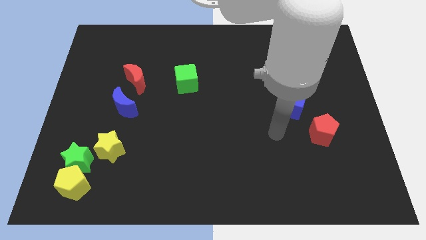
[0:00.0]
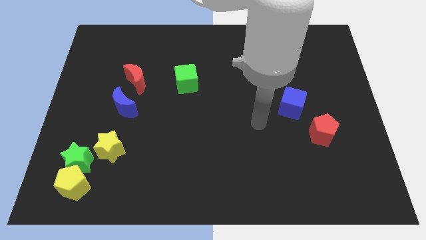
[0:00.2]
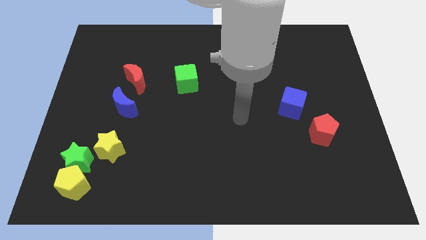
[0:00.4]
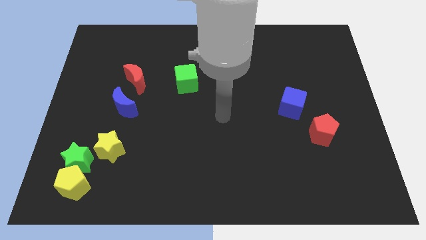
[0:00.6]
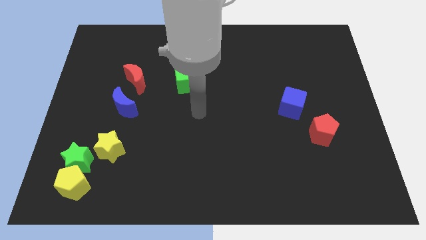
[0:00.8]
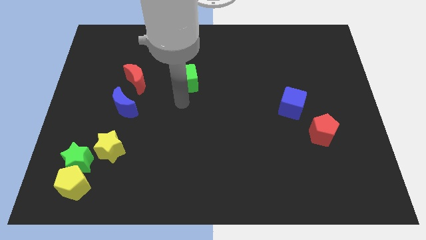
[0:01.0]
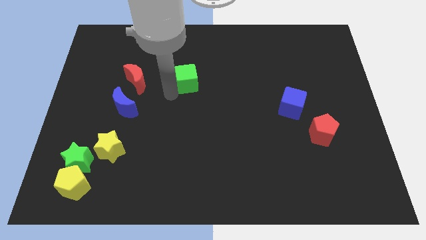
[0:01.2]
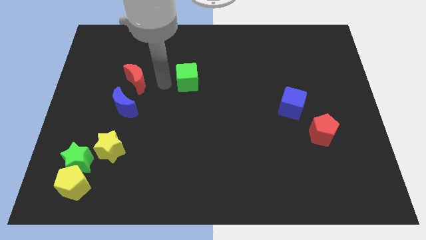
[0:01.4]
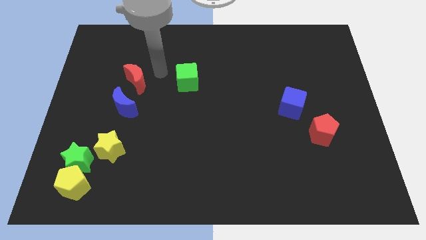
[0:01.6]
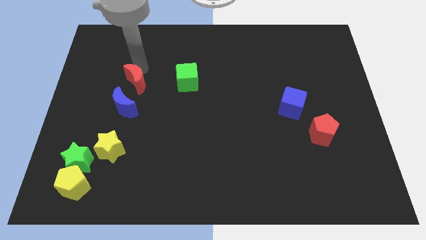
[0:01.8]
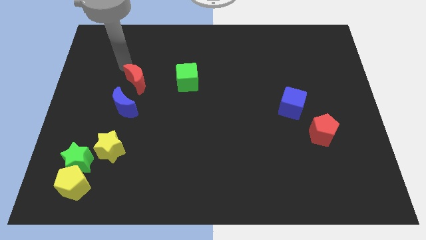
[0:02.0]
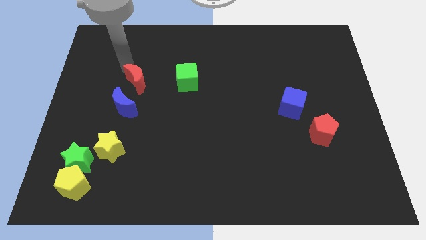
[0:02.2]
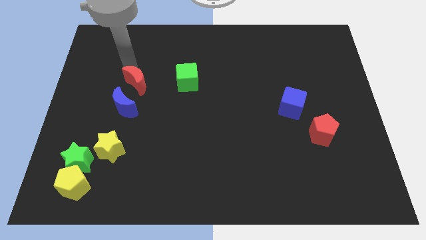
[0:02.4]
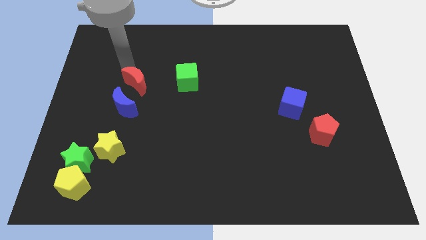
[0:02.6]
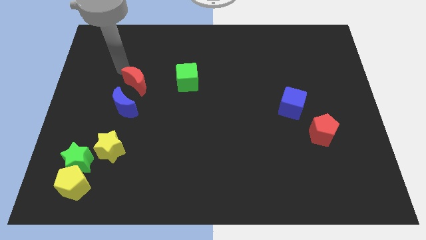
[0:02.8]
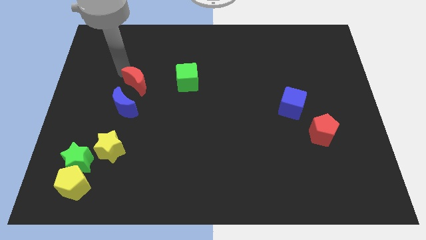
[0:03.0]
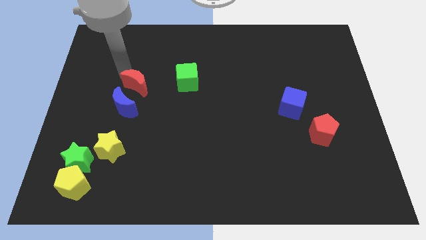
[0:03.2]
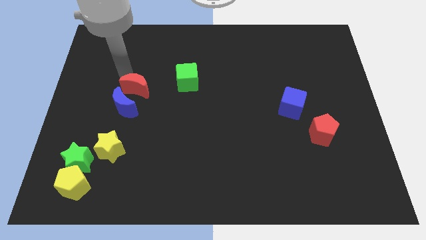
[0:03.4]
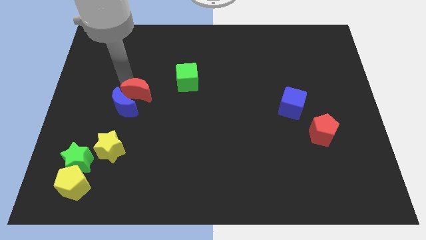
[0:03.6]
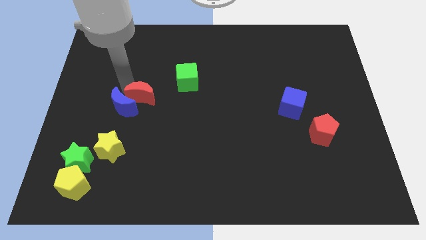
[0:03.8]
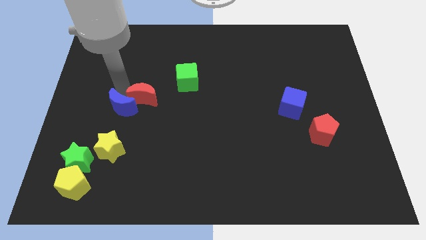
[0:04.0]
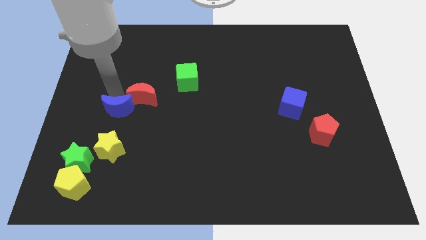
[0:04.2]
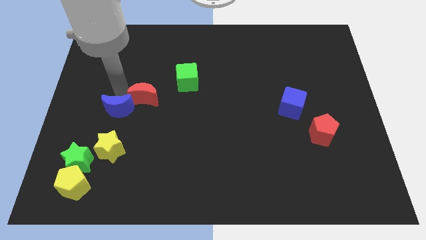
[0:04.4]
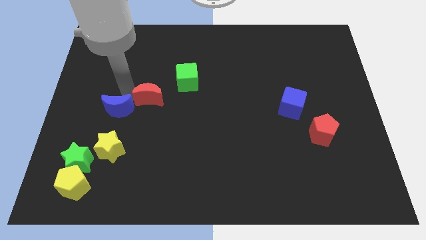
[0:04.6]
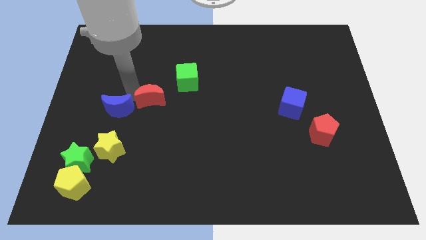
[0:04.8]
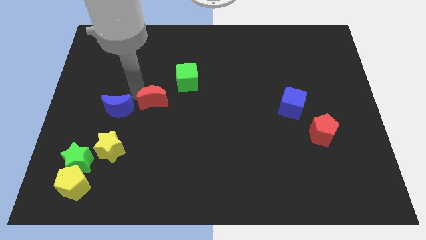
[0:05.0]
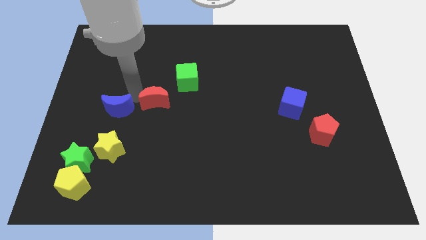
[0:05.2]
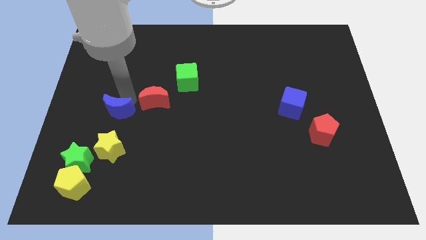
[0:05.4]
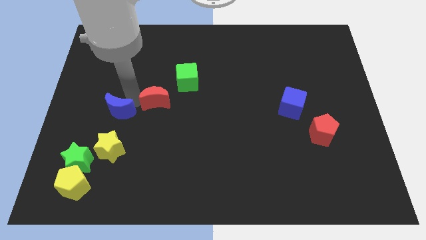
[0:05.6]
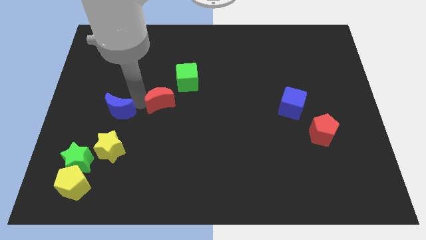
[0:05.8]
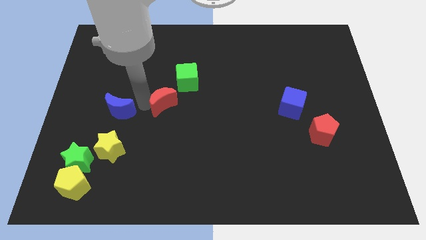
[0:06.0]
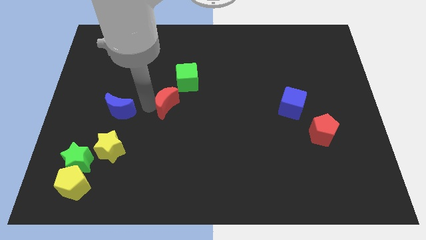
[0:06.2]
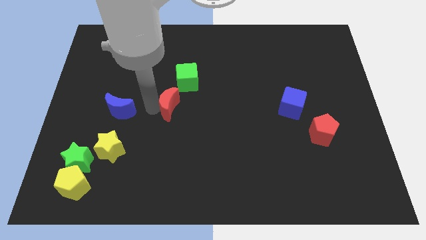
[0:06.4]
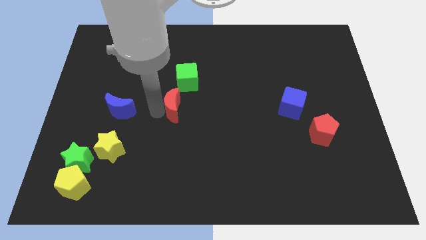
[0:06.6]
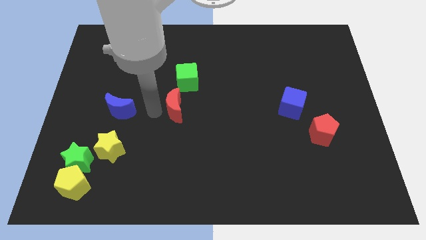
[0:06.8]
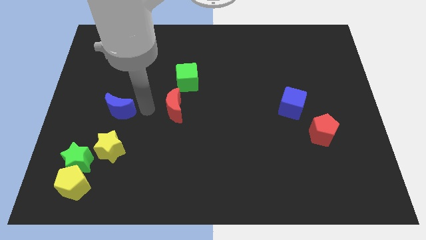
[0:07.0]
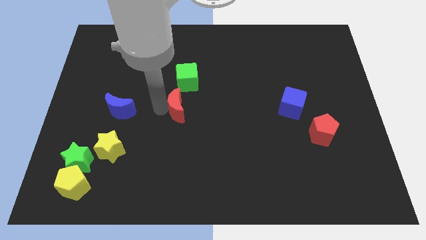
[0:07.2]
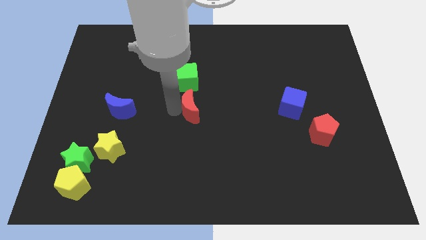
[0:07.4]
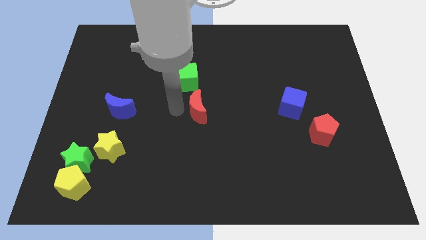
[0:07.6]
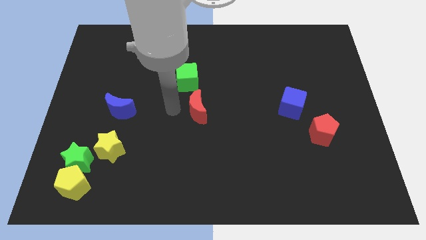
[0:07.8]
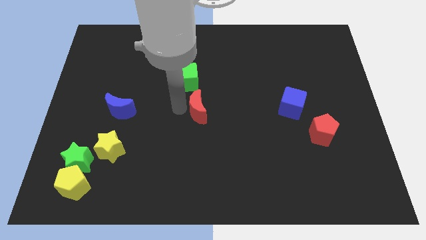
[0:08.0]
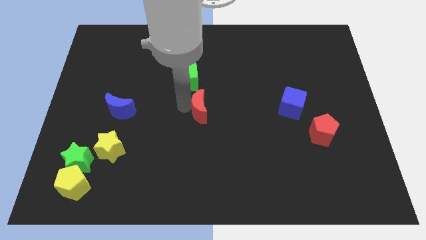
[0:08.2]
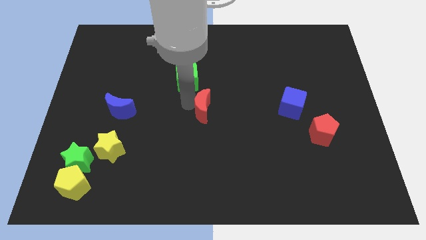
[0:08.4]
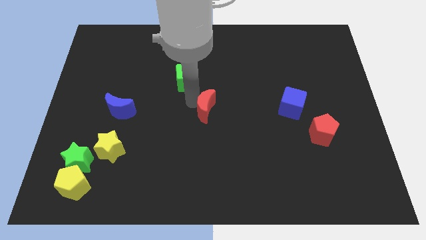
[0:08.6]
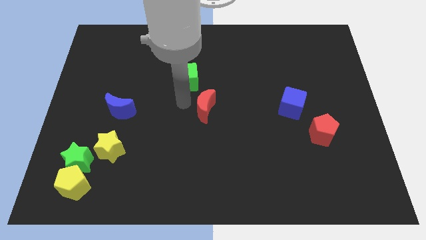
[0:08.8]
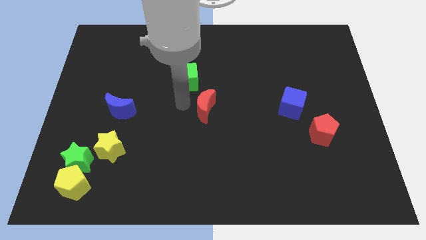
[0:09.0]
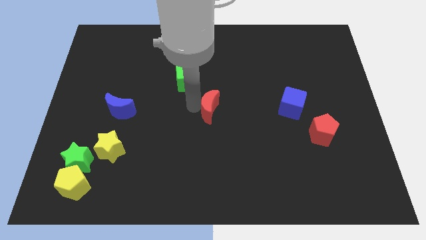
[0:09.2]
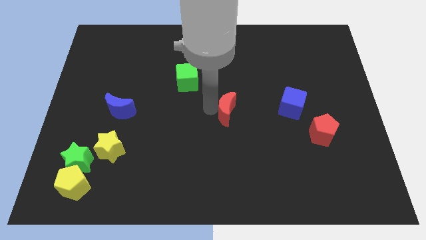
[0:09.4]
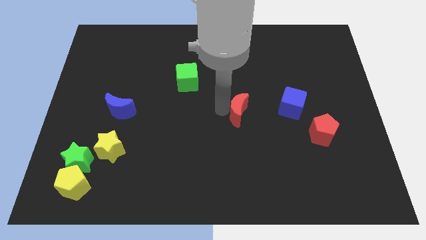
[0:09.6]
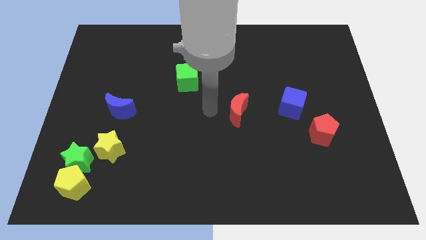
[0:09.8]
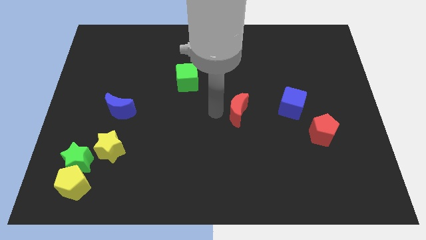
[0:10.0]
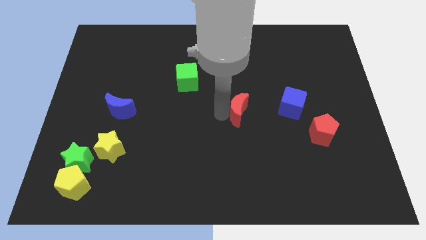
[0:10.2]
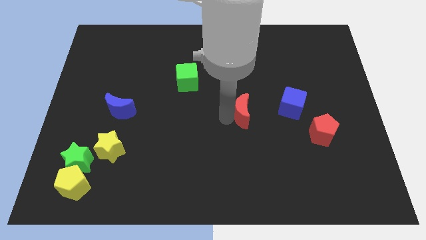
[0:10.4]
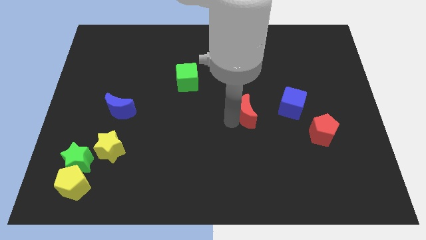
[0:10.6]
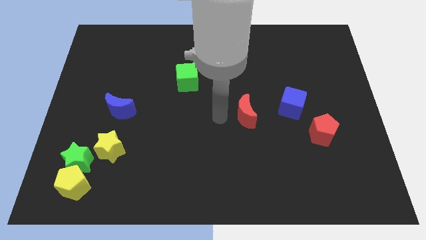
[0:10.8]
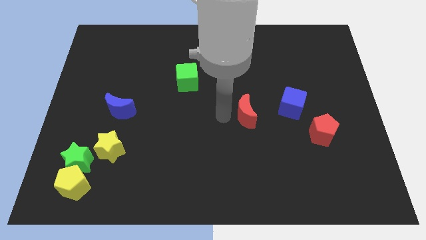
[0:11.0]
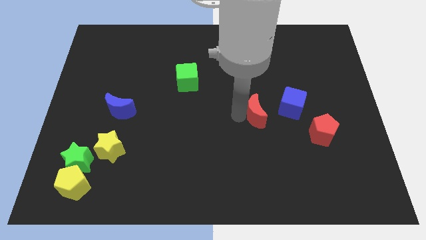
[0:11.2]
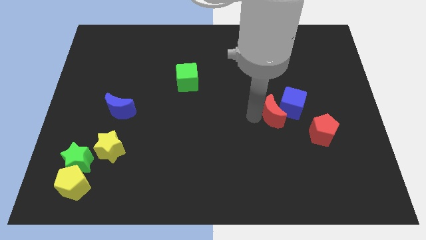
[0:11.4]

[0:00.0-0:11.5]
put the red moon close to the blue cube

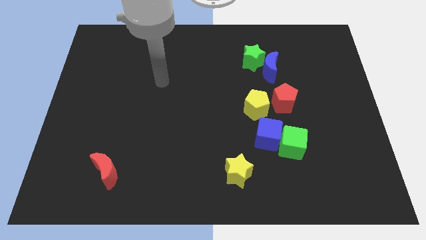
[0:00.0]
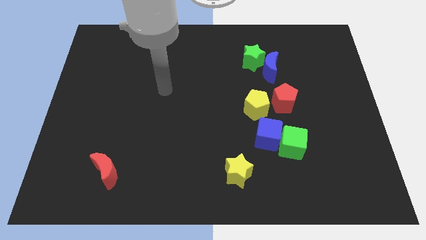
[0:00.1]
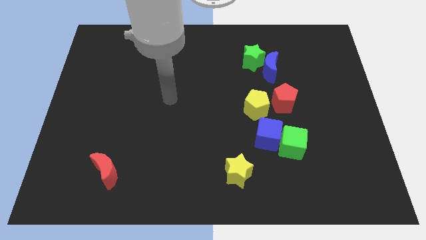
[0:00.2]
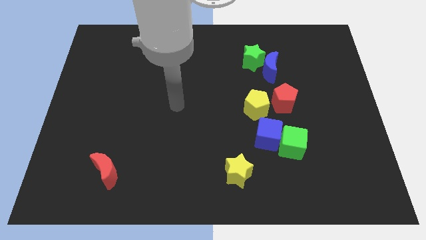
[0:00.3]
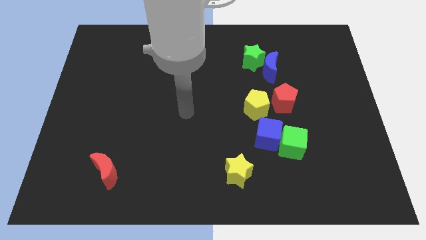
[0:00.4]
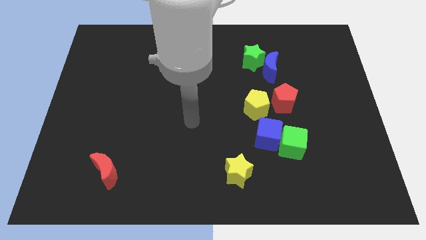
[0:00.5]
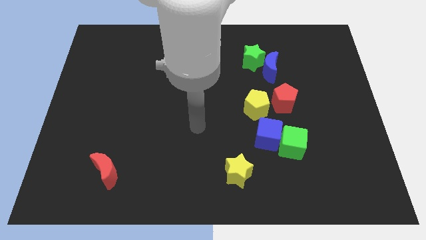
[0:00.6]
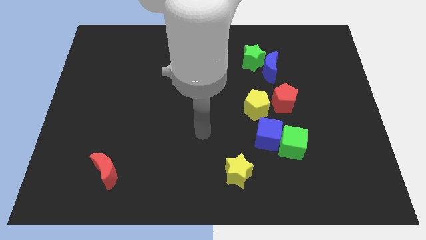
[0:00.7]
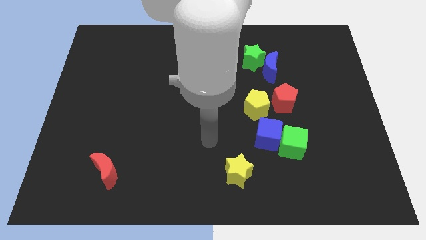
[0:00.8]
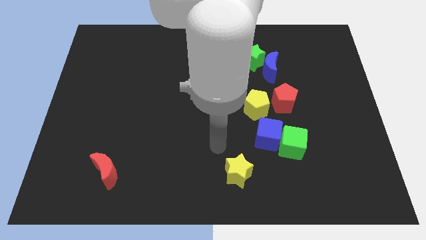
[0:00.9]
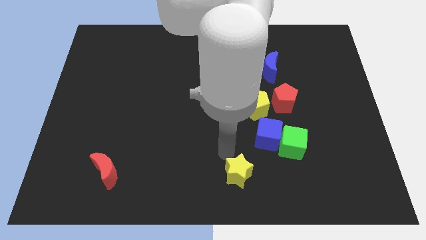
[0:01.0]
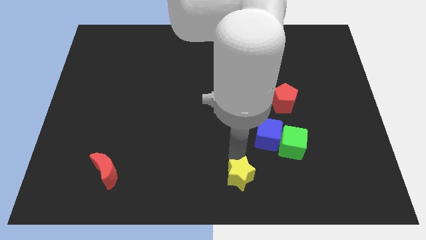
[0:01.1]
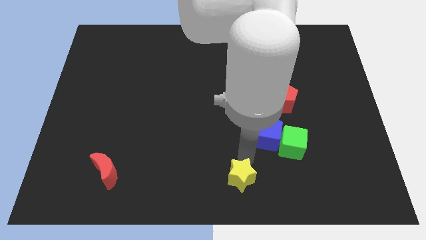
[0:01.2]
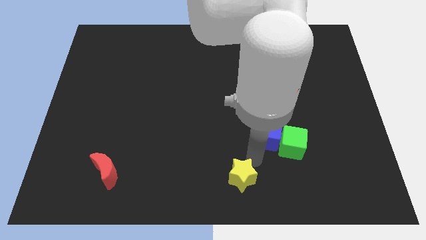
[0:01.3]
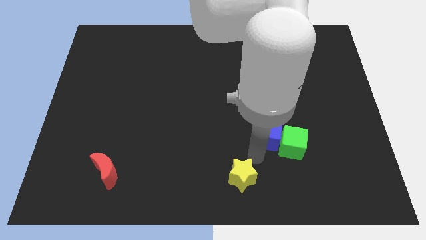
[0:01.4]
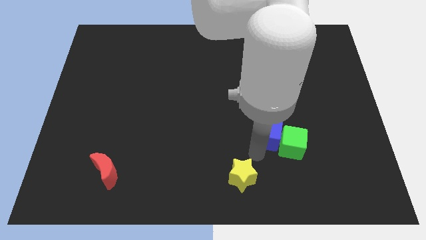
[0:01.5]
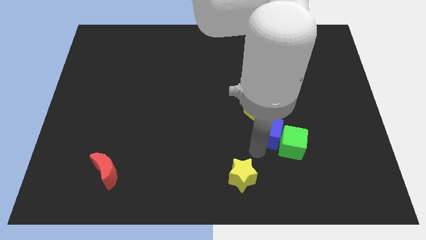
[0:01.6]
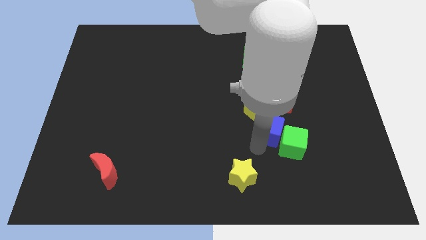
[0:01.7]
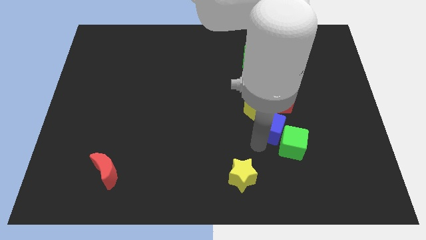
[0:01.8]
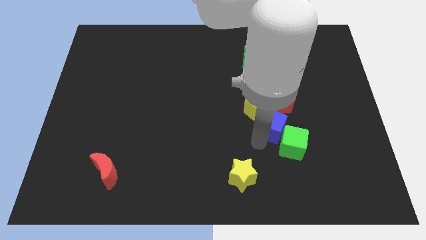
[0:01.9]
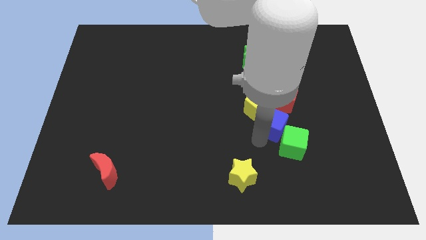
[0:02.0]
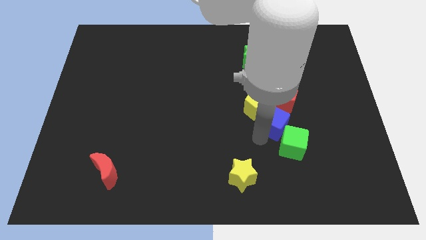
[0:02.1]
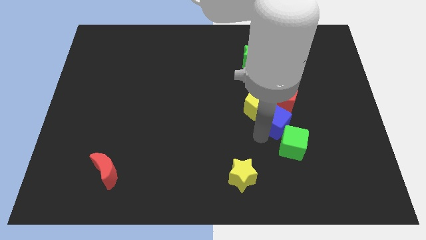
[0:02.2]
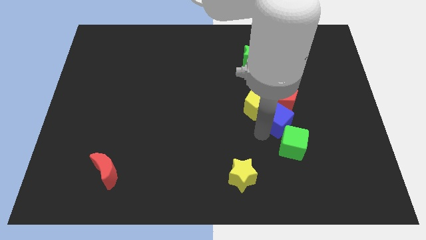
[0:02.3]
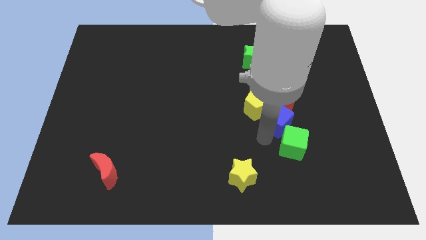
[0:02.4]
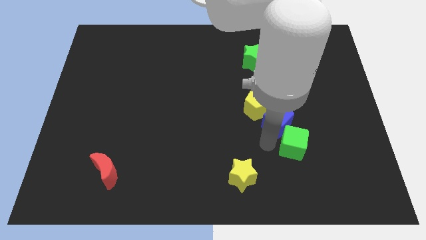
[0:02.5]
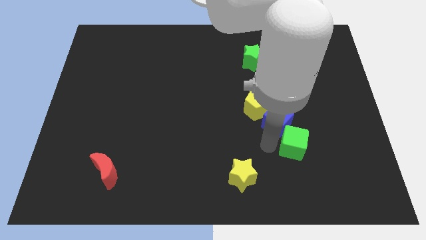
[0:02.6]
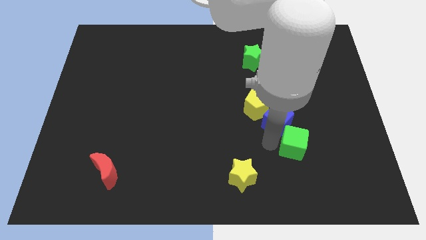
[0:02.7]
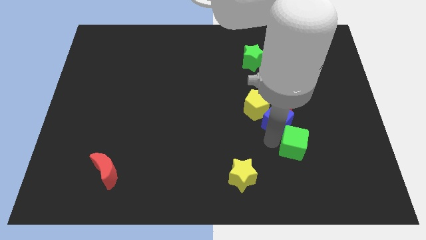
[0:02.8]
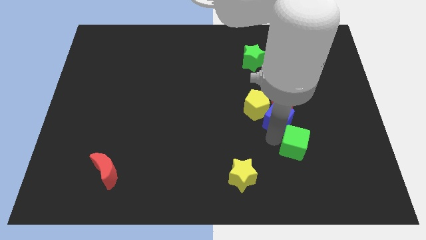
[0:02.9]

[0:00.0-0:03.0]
put the blue cube next to the red pentagon
